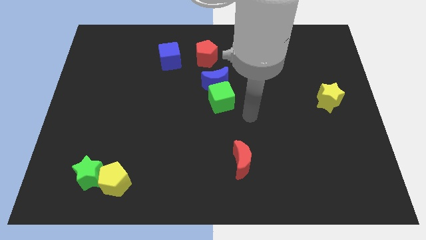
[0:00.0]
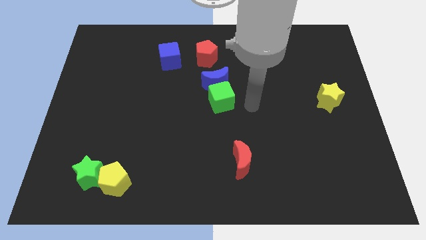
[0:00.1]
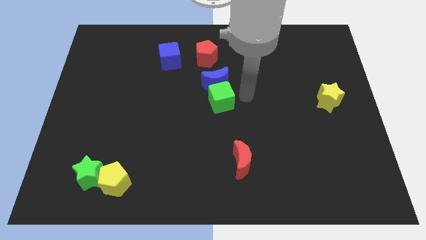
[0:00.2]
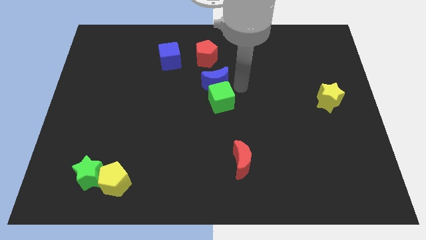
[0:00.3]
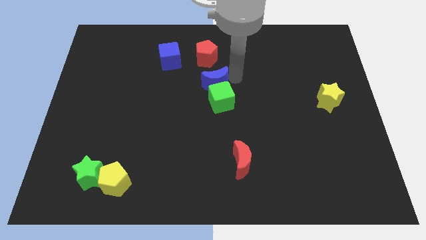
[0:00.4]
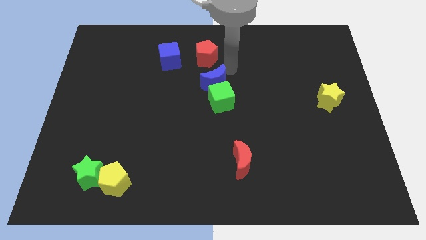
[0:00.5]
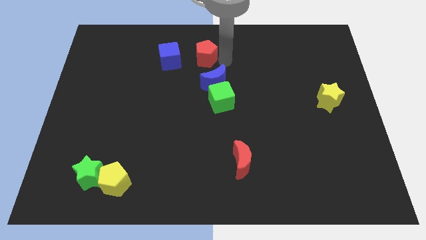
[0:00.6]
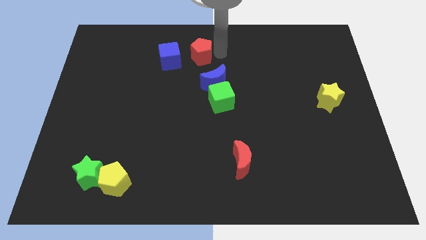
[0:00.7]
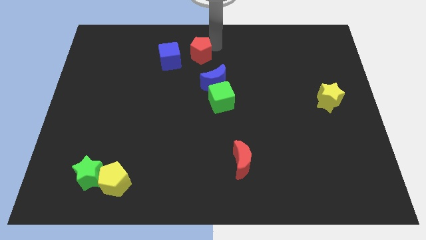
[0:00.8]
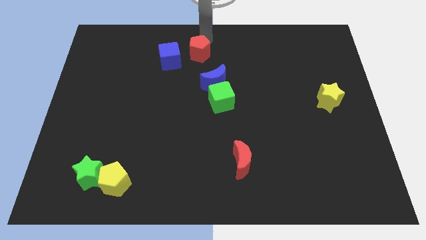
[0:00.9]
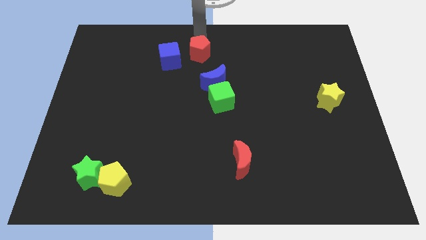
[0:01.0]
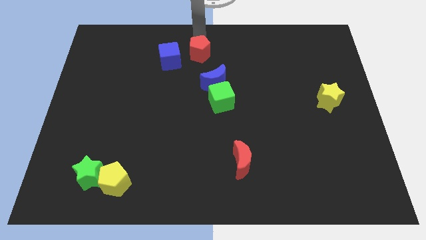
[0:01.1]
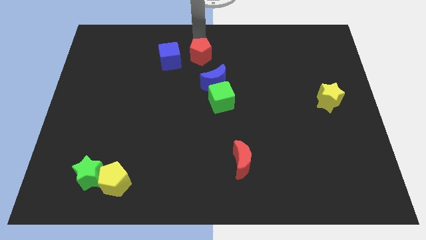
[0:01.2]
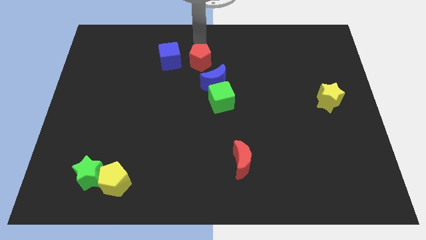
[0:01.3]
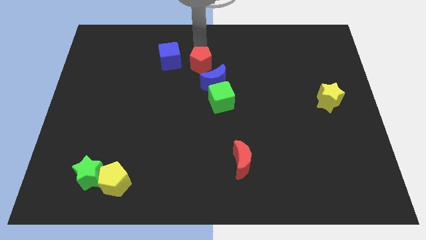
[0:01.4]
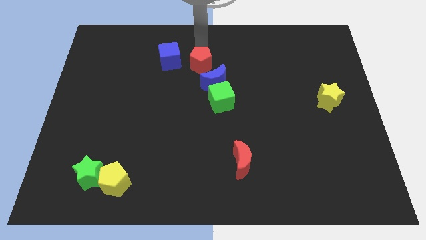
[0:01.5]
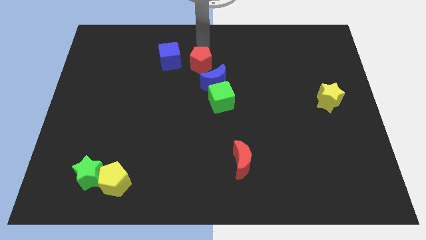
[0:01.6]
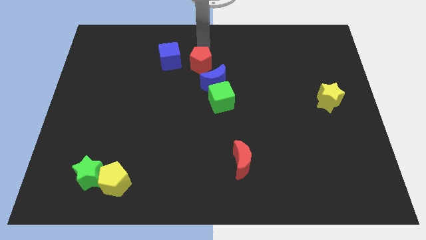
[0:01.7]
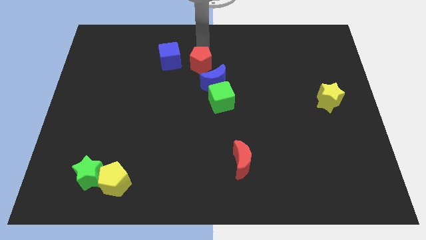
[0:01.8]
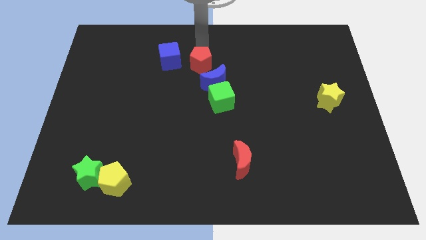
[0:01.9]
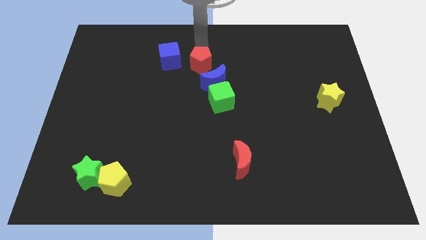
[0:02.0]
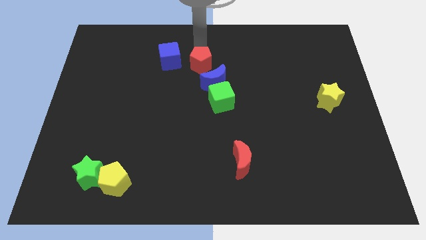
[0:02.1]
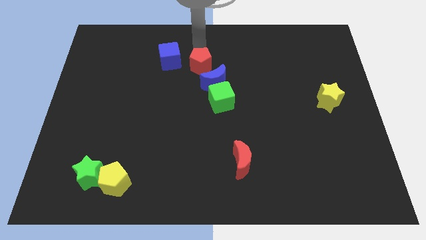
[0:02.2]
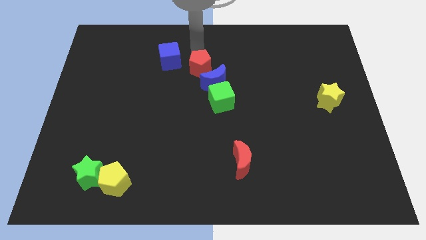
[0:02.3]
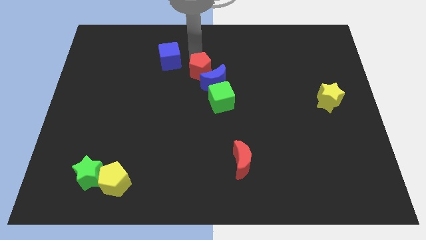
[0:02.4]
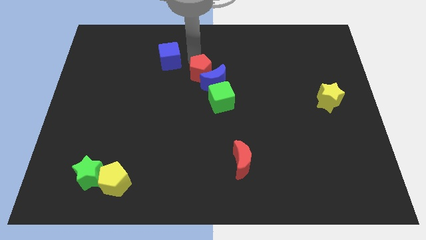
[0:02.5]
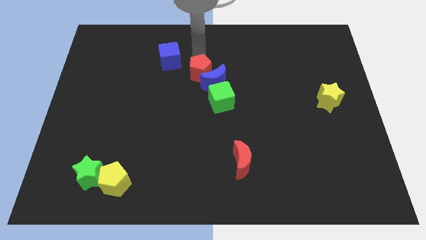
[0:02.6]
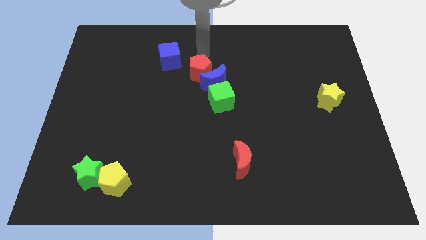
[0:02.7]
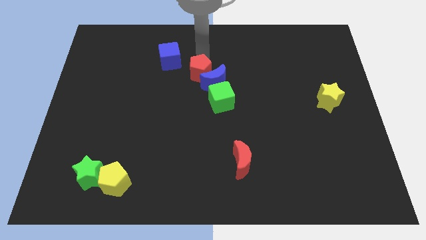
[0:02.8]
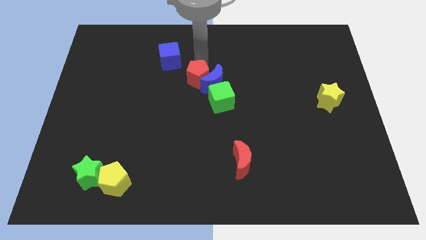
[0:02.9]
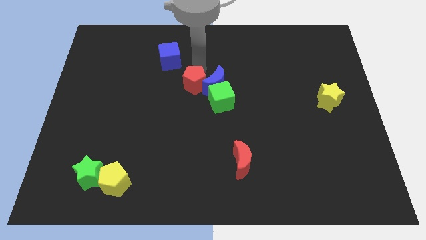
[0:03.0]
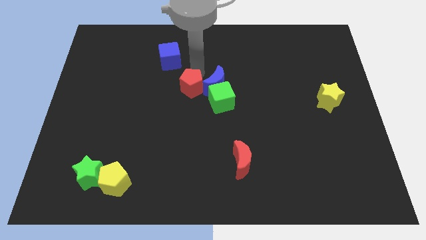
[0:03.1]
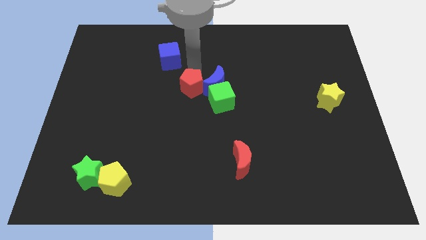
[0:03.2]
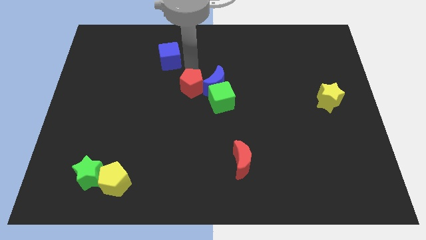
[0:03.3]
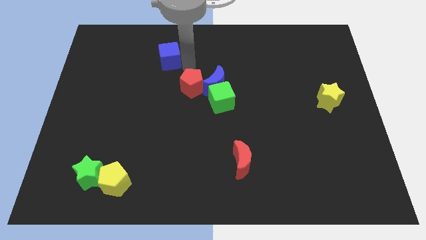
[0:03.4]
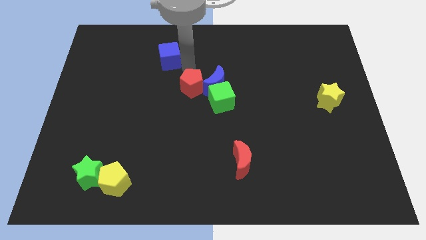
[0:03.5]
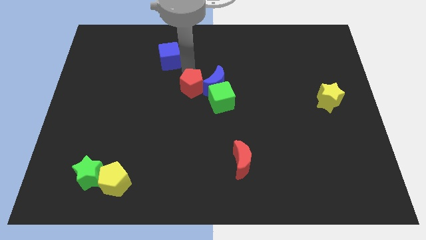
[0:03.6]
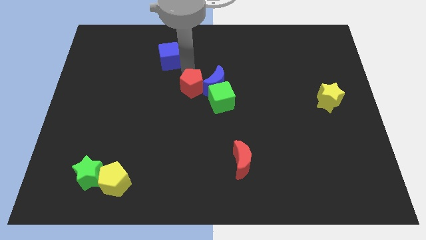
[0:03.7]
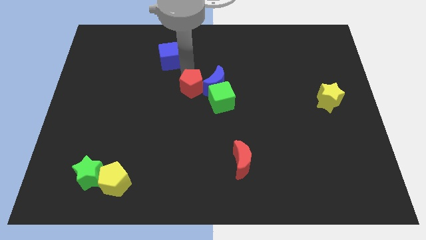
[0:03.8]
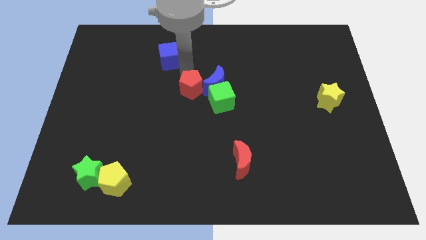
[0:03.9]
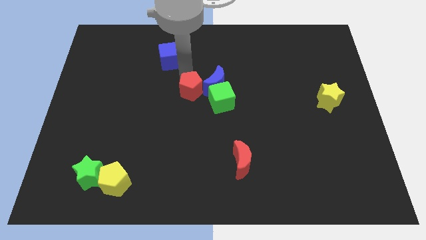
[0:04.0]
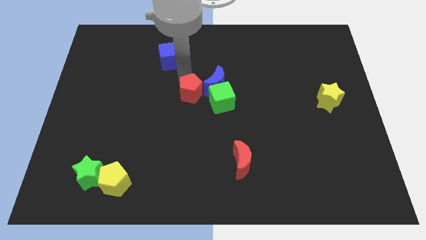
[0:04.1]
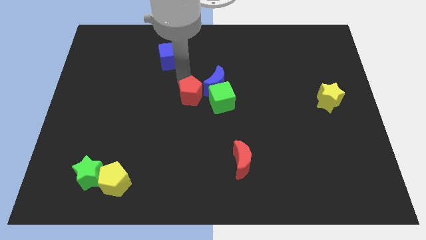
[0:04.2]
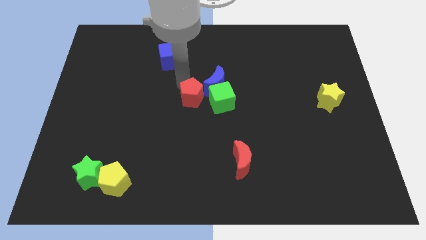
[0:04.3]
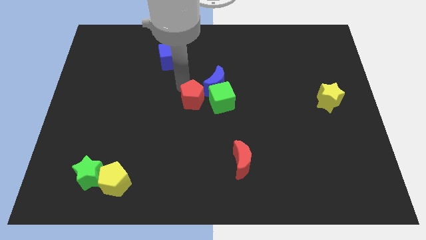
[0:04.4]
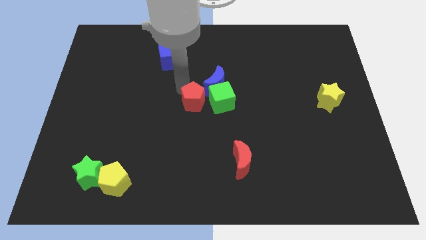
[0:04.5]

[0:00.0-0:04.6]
move the red pentagon to the bottom left side of the green cube

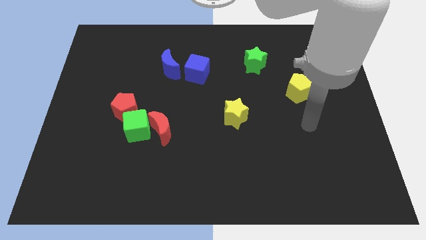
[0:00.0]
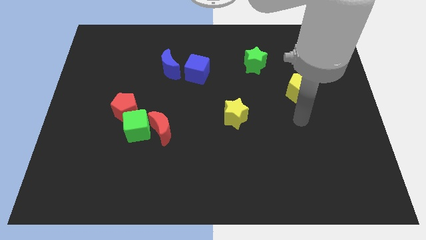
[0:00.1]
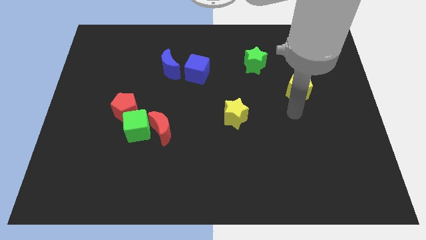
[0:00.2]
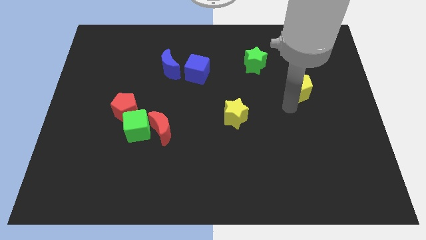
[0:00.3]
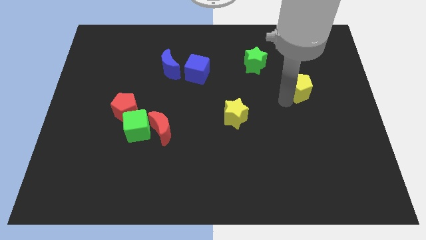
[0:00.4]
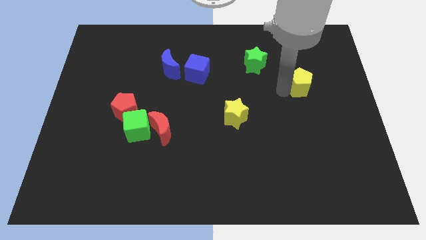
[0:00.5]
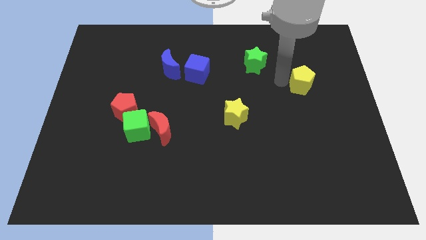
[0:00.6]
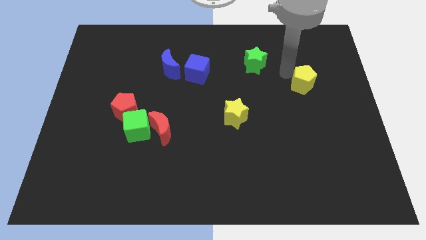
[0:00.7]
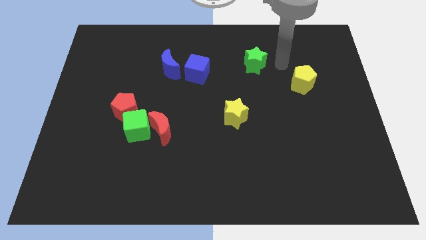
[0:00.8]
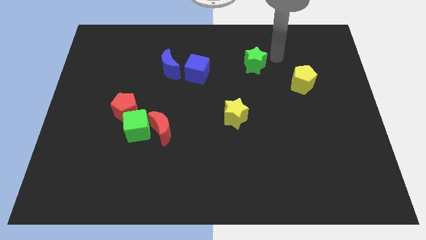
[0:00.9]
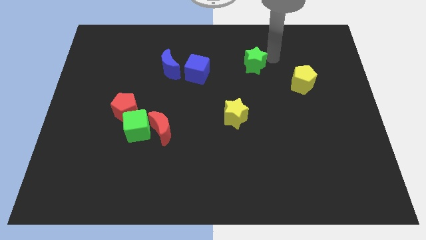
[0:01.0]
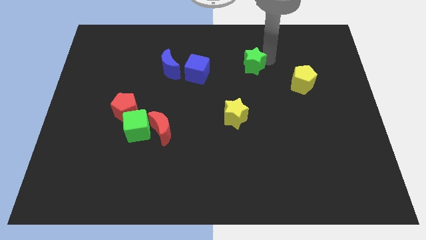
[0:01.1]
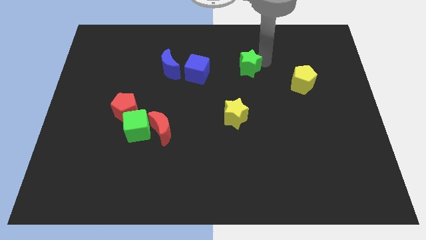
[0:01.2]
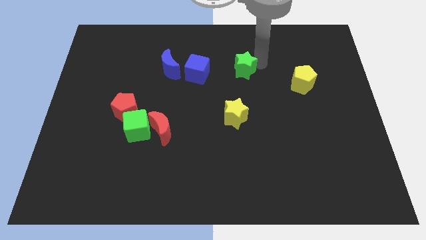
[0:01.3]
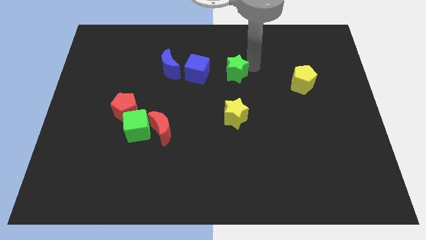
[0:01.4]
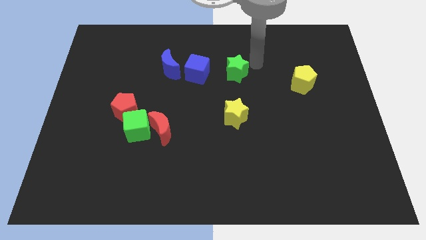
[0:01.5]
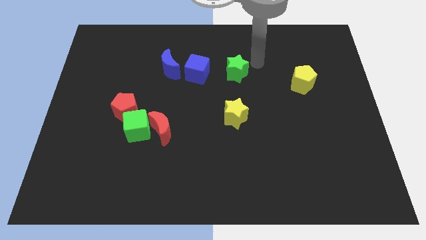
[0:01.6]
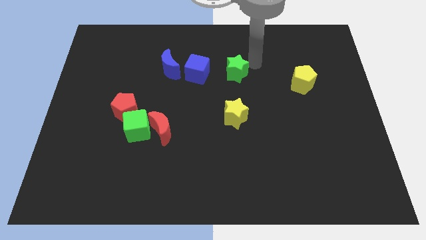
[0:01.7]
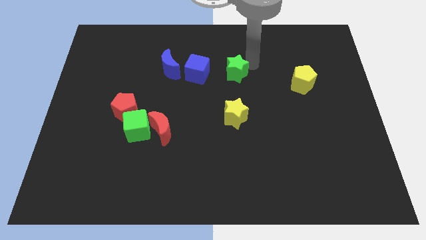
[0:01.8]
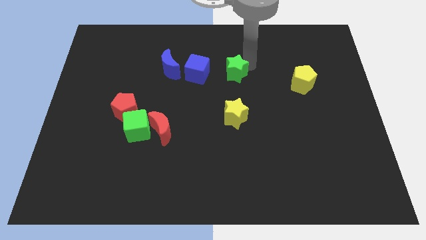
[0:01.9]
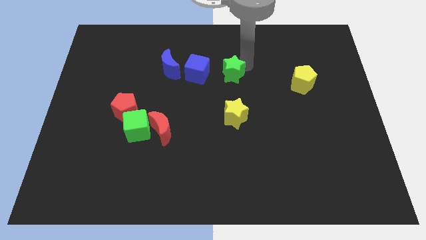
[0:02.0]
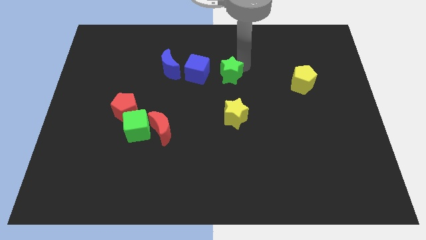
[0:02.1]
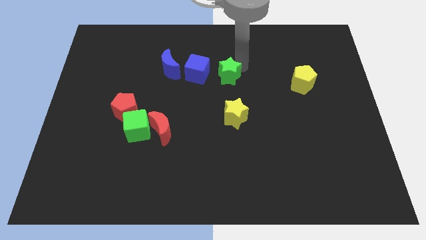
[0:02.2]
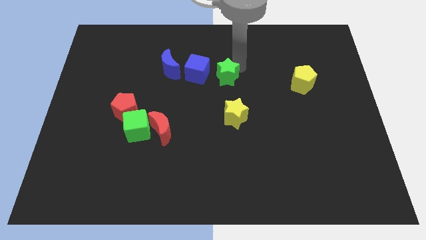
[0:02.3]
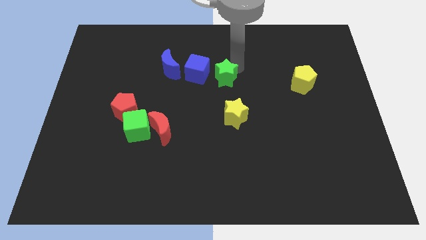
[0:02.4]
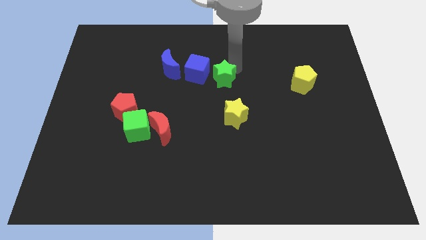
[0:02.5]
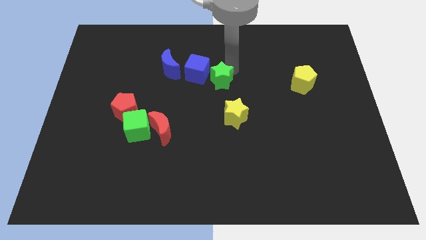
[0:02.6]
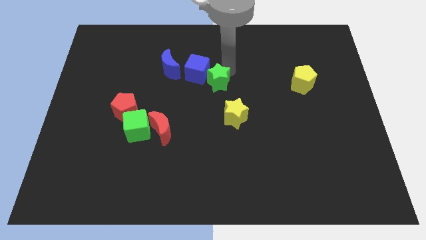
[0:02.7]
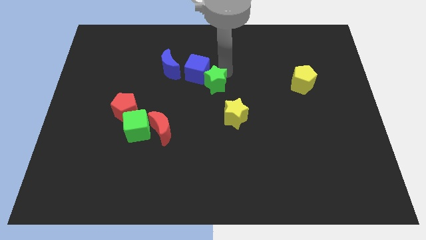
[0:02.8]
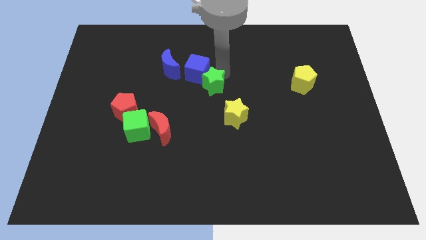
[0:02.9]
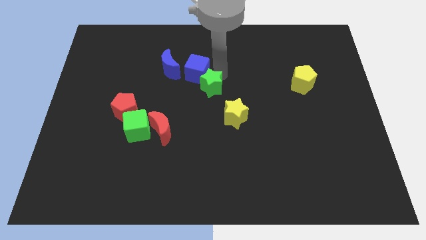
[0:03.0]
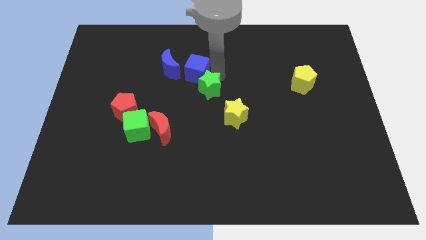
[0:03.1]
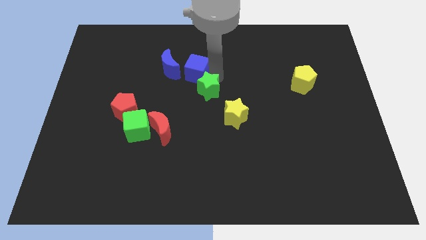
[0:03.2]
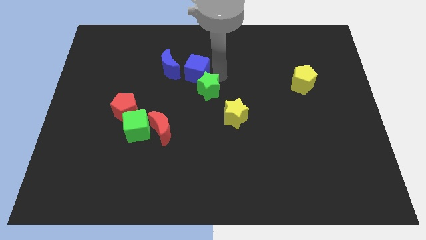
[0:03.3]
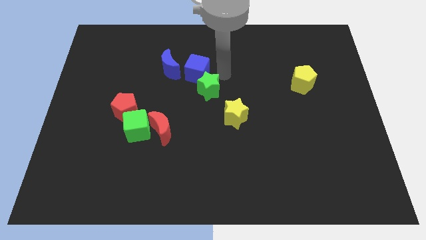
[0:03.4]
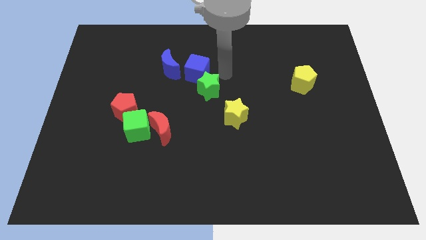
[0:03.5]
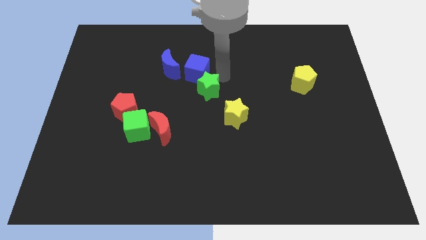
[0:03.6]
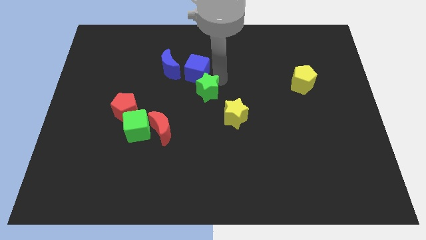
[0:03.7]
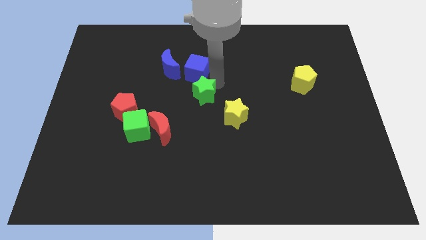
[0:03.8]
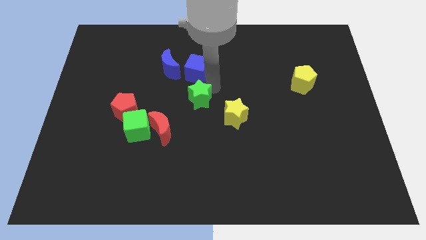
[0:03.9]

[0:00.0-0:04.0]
slide the green star to the top right side of the red moon
